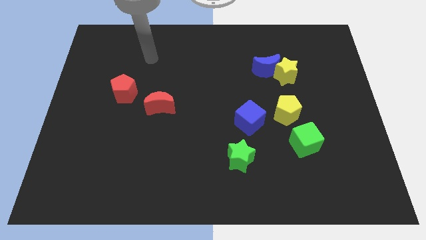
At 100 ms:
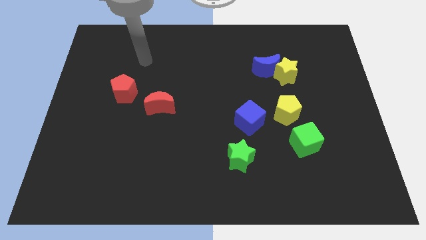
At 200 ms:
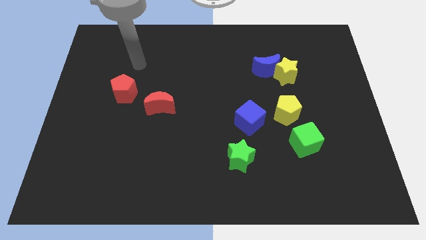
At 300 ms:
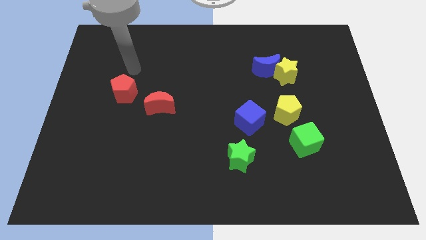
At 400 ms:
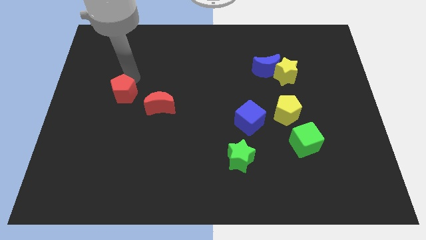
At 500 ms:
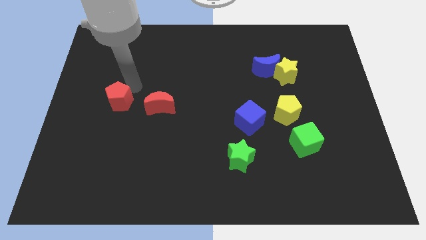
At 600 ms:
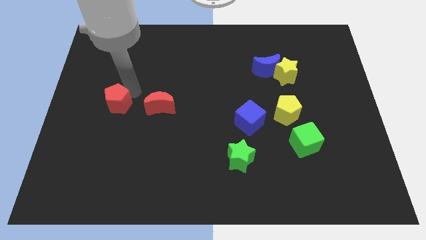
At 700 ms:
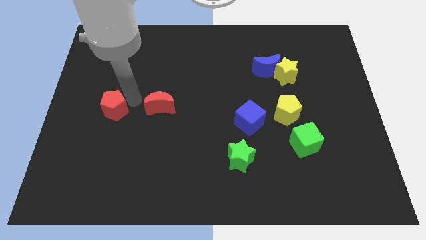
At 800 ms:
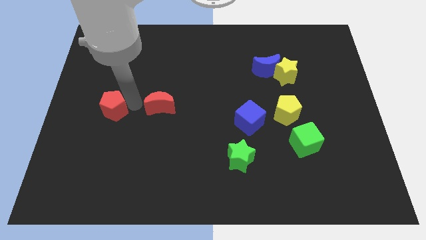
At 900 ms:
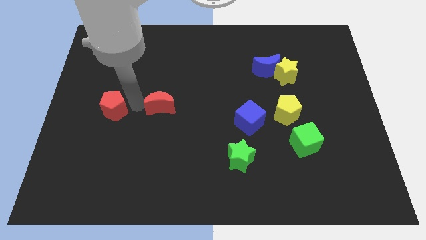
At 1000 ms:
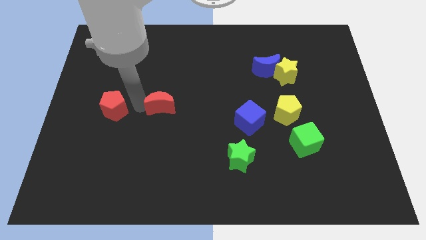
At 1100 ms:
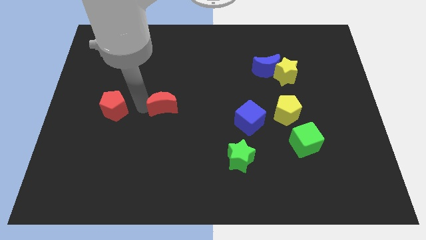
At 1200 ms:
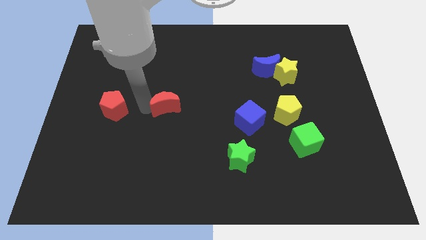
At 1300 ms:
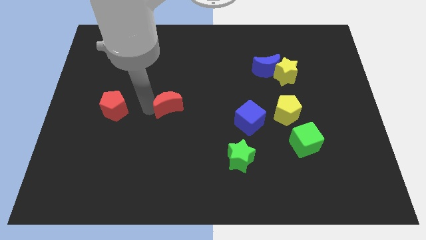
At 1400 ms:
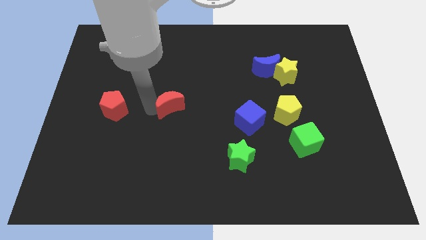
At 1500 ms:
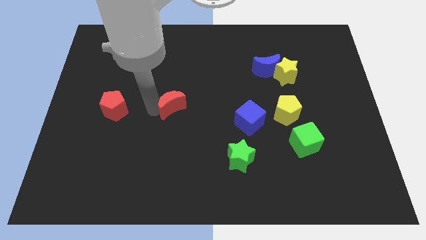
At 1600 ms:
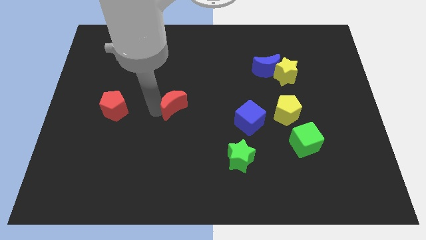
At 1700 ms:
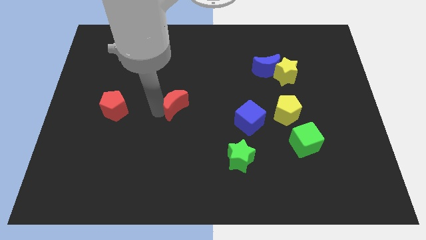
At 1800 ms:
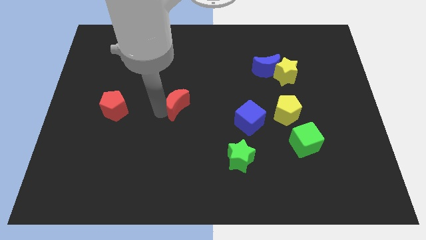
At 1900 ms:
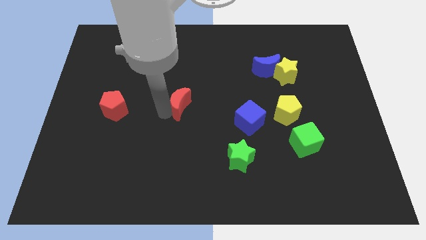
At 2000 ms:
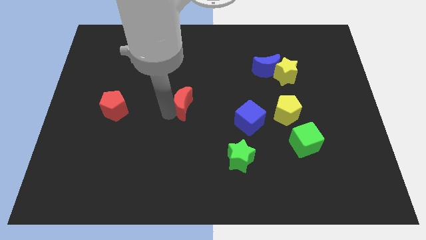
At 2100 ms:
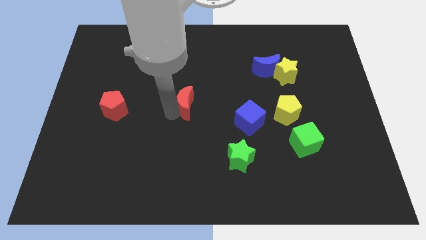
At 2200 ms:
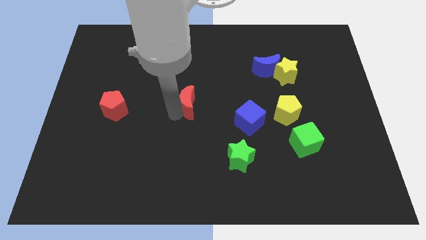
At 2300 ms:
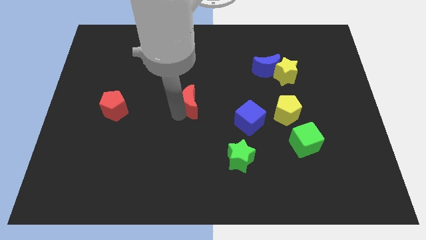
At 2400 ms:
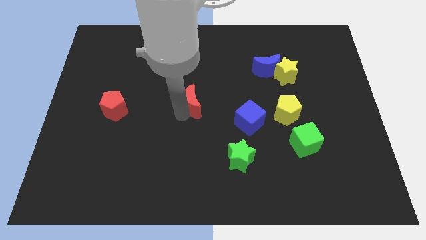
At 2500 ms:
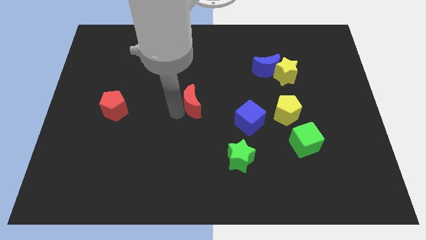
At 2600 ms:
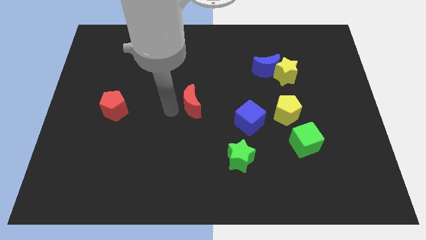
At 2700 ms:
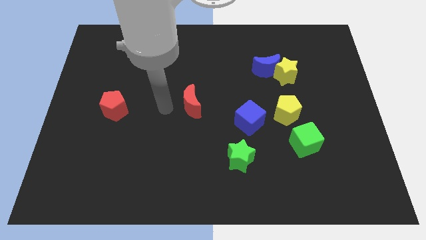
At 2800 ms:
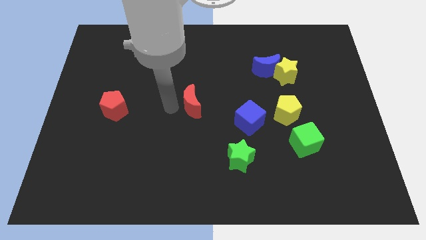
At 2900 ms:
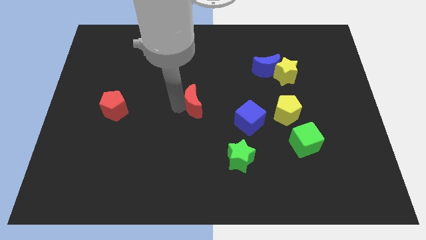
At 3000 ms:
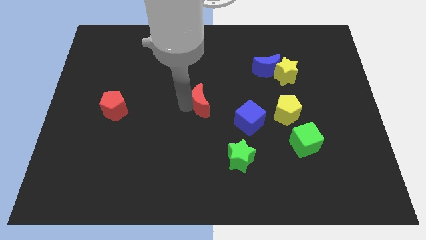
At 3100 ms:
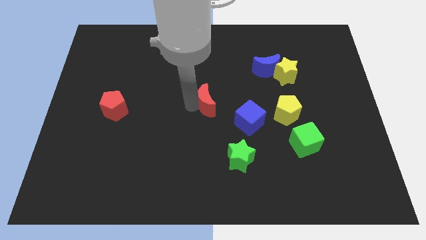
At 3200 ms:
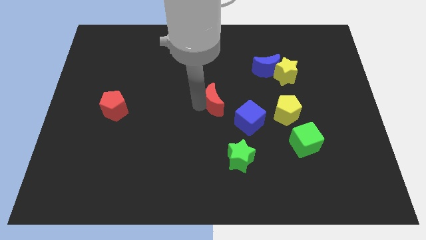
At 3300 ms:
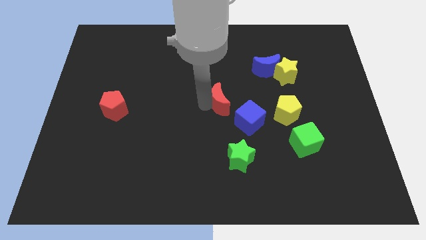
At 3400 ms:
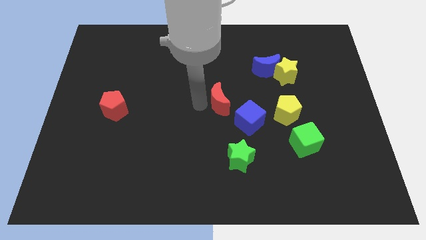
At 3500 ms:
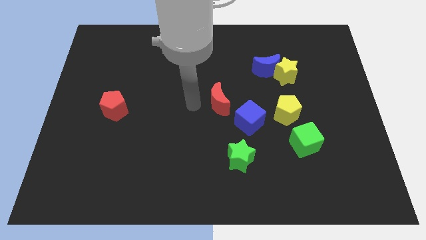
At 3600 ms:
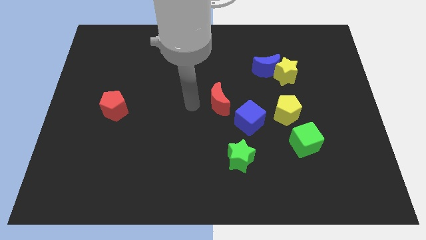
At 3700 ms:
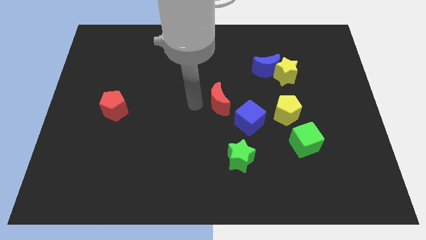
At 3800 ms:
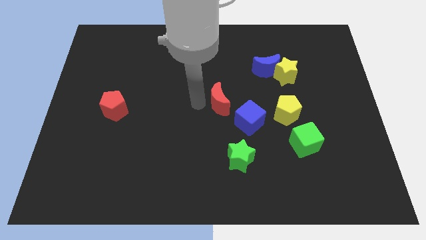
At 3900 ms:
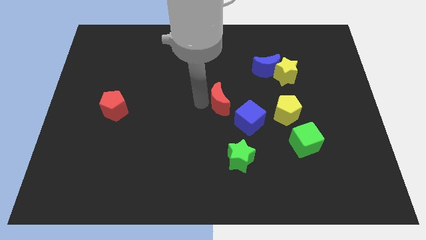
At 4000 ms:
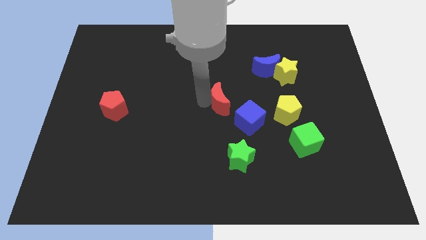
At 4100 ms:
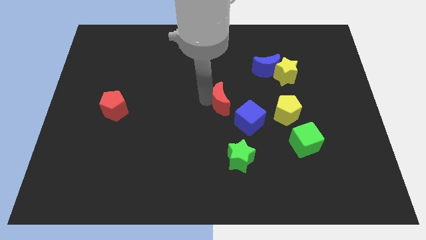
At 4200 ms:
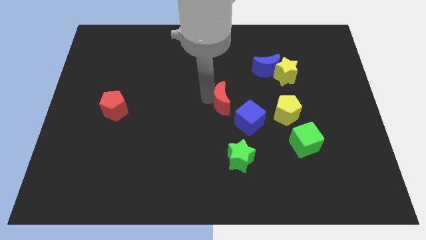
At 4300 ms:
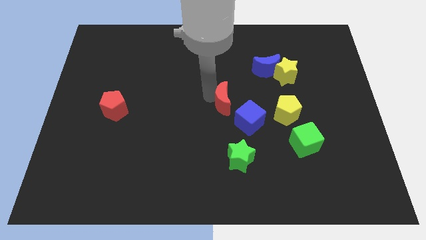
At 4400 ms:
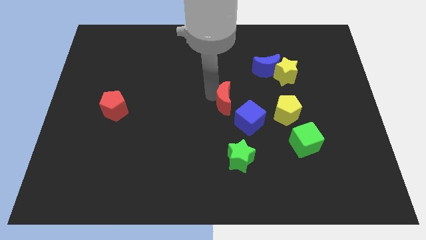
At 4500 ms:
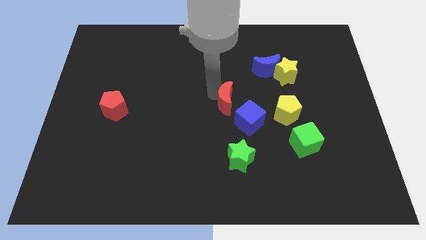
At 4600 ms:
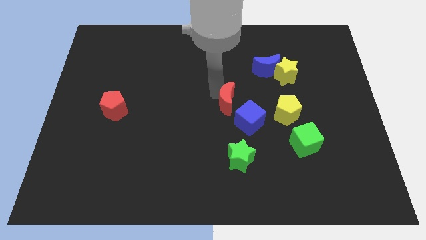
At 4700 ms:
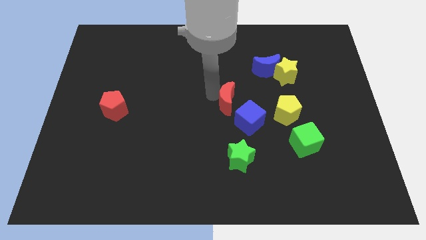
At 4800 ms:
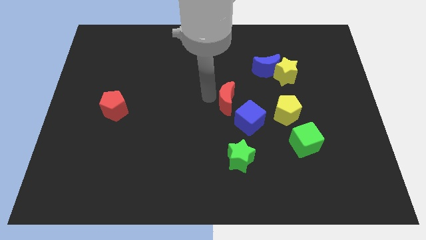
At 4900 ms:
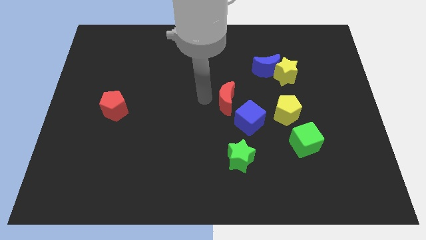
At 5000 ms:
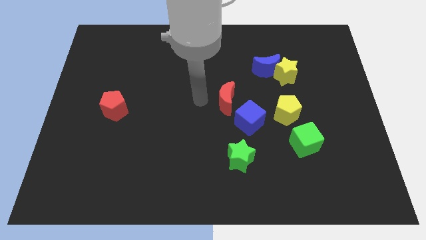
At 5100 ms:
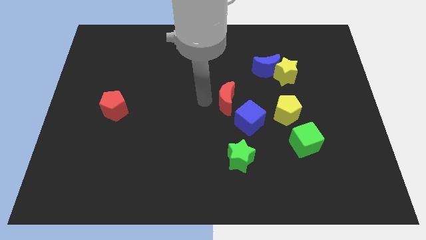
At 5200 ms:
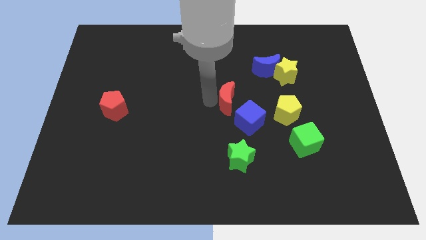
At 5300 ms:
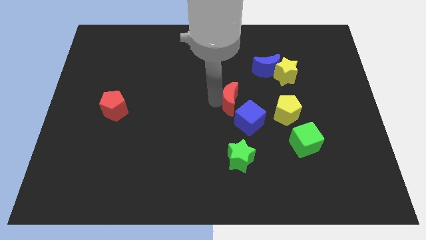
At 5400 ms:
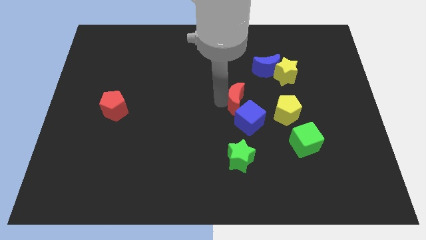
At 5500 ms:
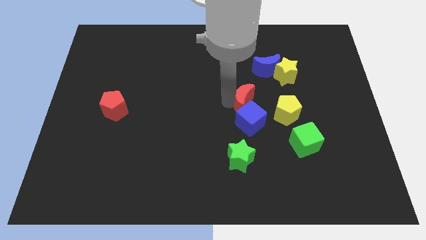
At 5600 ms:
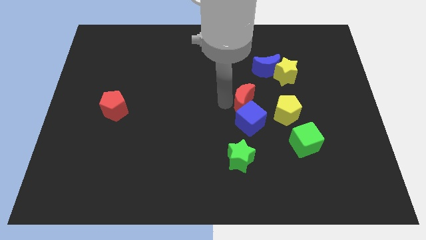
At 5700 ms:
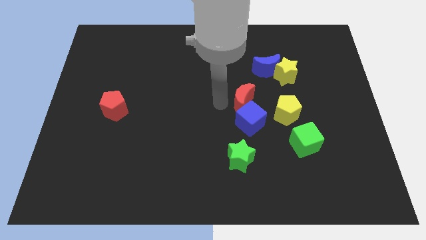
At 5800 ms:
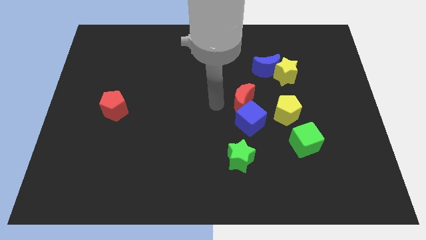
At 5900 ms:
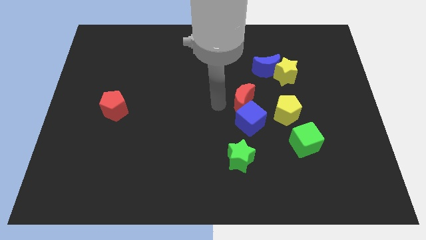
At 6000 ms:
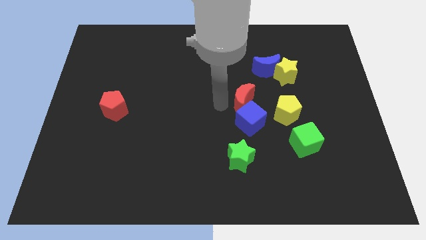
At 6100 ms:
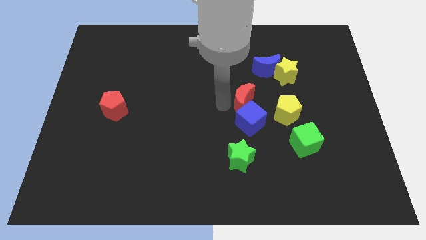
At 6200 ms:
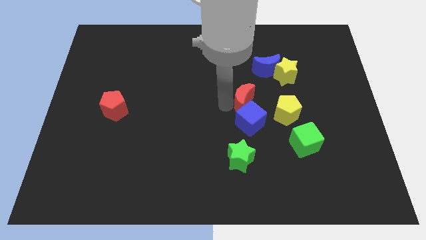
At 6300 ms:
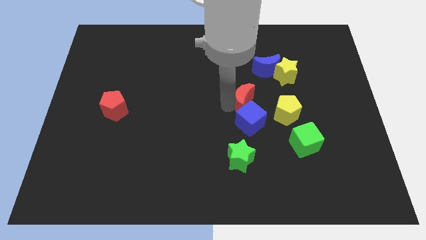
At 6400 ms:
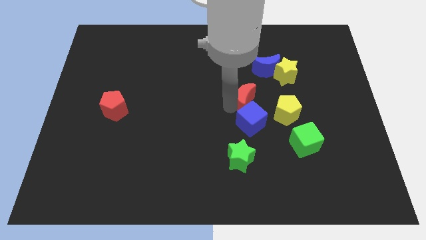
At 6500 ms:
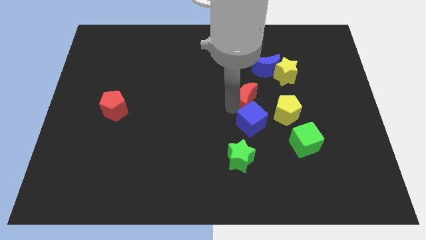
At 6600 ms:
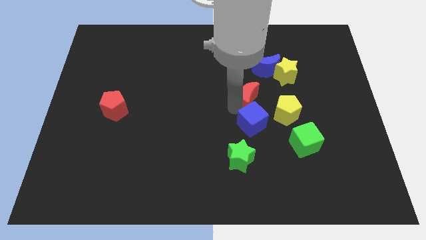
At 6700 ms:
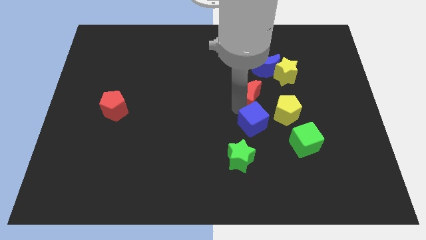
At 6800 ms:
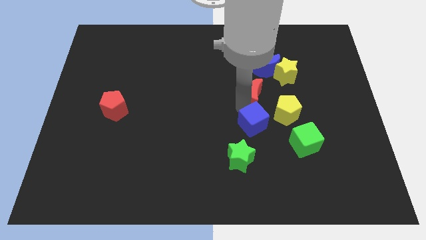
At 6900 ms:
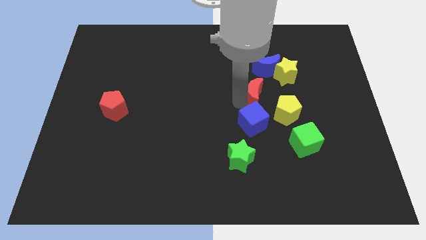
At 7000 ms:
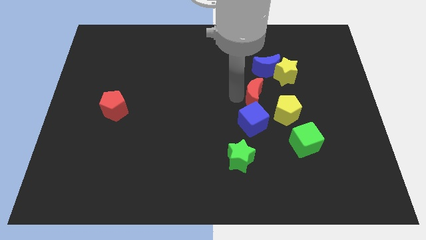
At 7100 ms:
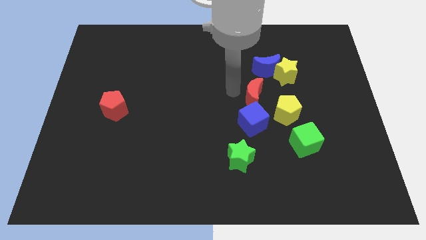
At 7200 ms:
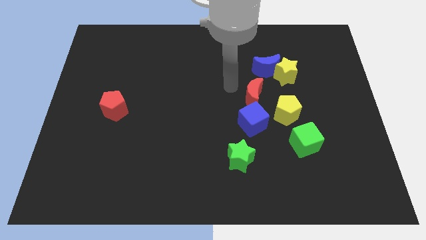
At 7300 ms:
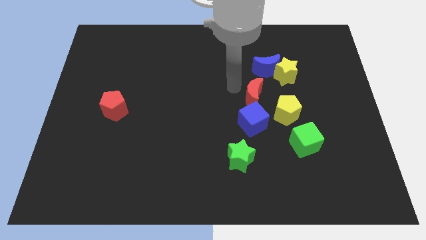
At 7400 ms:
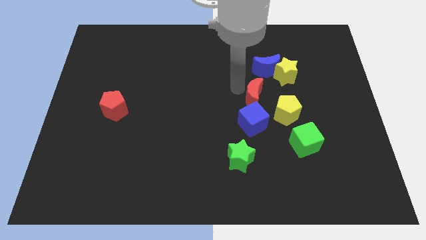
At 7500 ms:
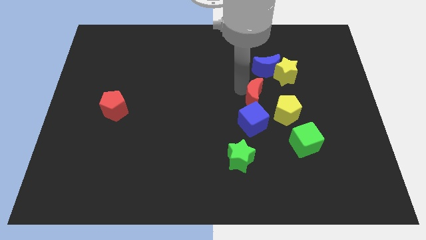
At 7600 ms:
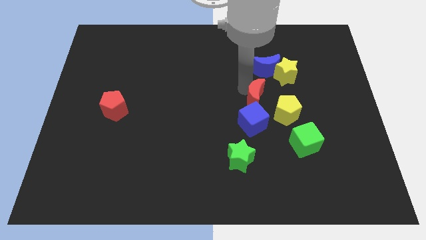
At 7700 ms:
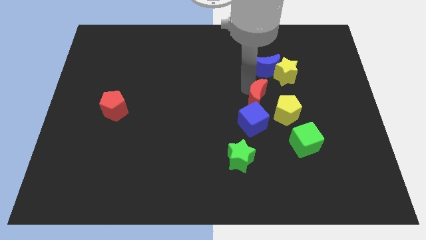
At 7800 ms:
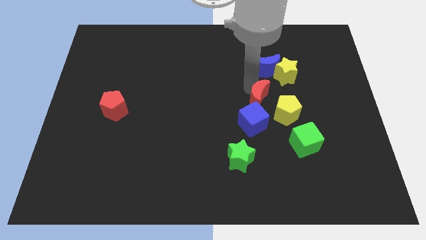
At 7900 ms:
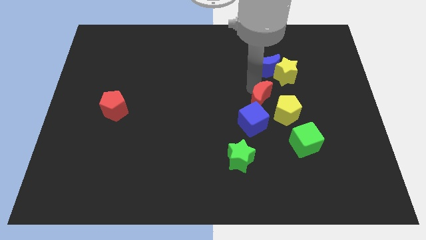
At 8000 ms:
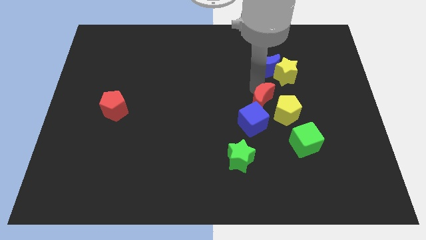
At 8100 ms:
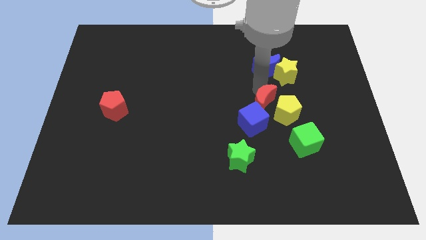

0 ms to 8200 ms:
push the red moon towards the yellow pentagon
